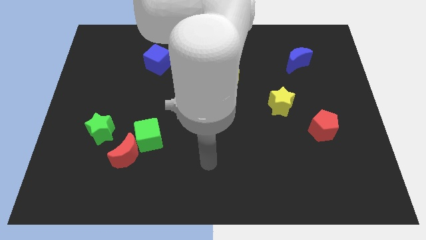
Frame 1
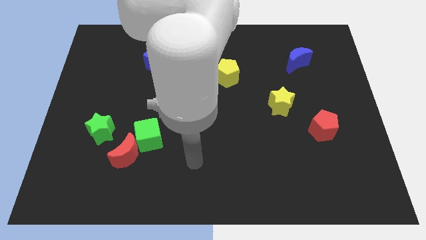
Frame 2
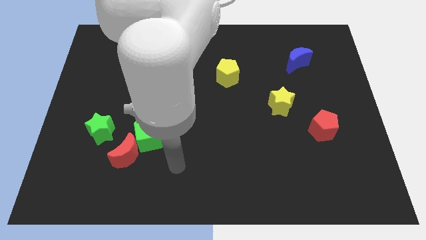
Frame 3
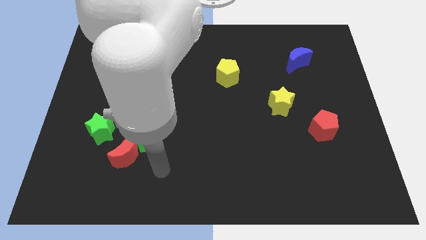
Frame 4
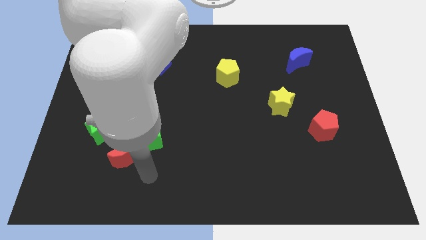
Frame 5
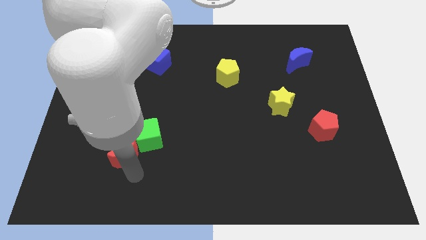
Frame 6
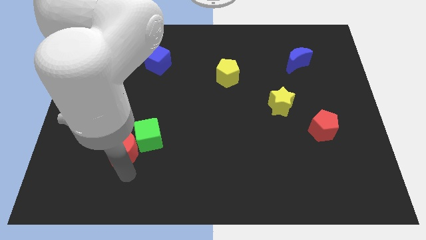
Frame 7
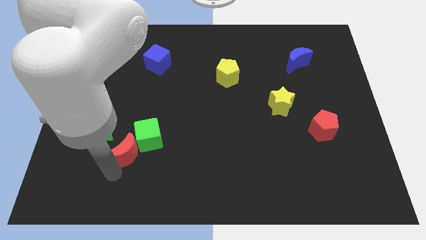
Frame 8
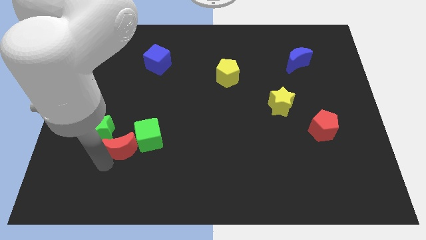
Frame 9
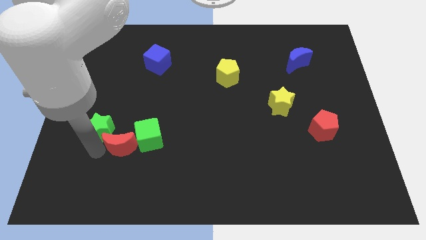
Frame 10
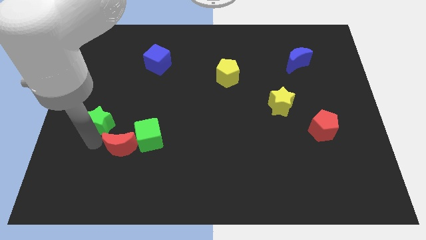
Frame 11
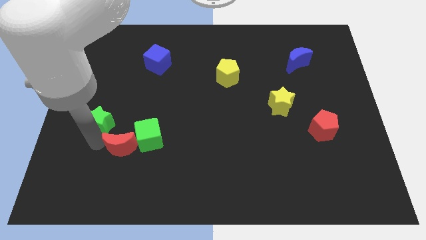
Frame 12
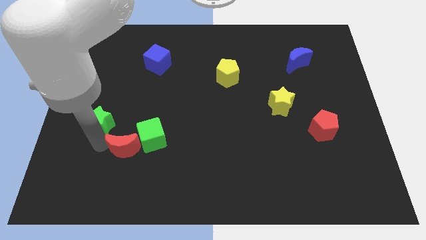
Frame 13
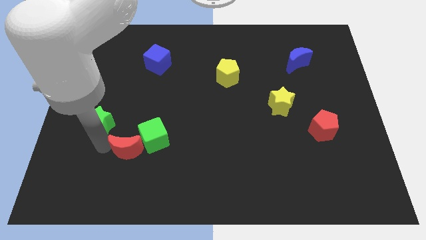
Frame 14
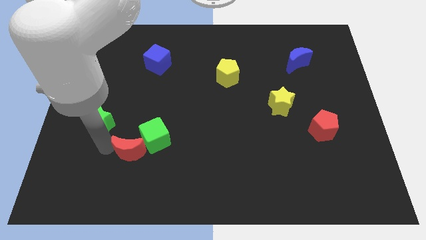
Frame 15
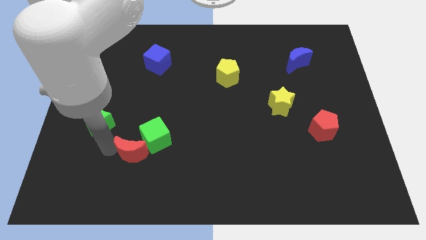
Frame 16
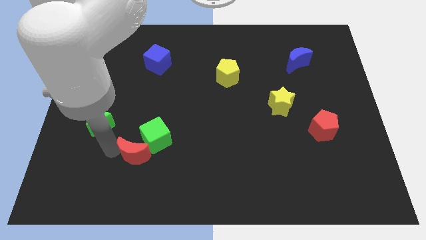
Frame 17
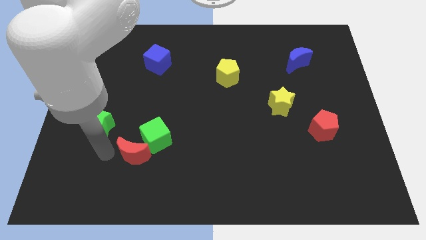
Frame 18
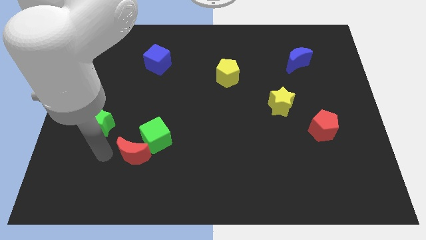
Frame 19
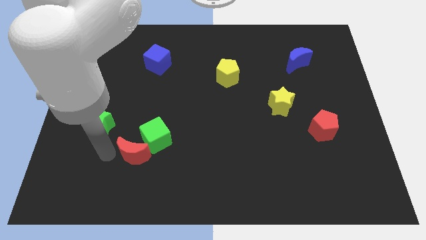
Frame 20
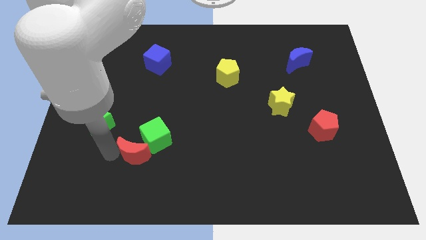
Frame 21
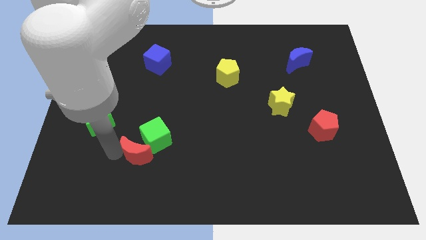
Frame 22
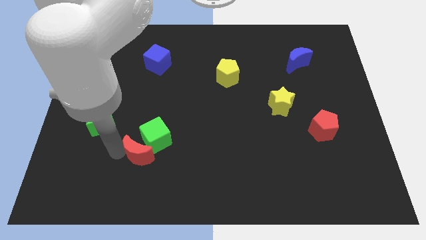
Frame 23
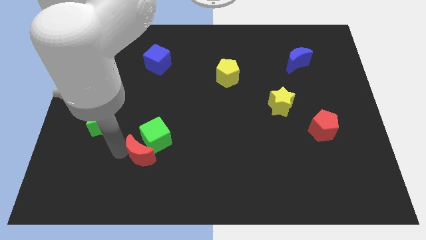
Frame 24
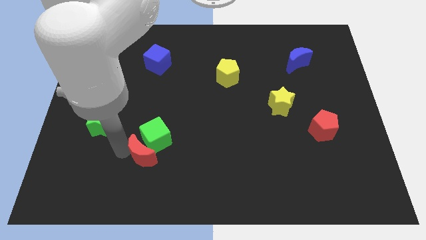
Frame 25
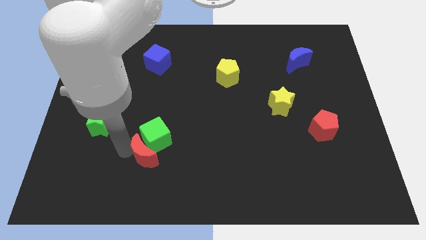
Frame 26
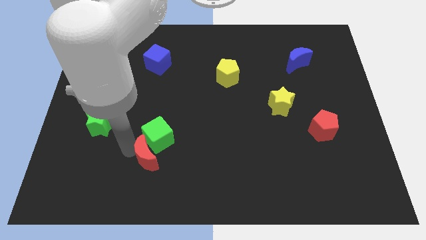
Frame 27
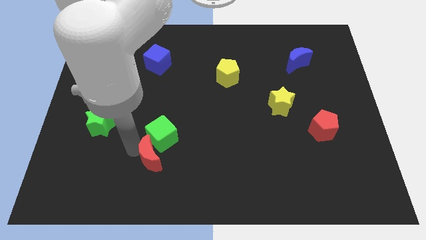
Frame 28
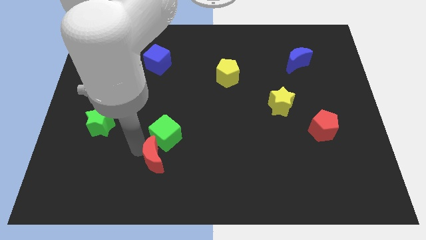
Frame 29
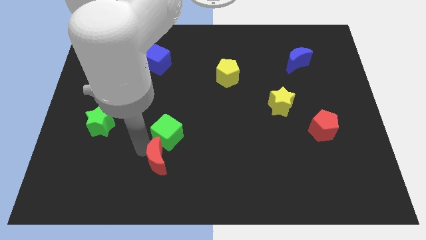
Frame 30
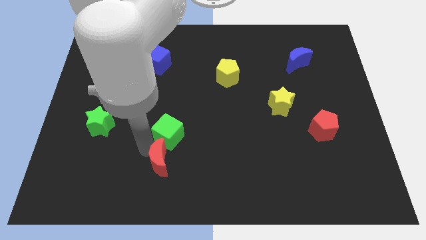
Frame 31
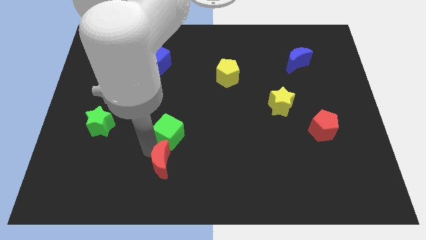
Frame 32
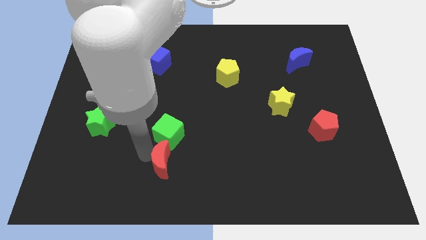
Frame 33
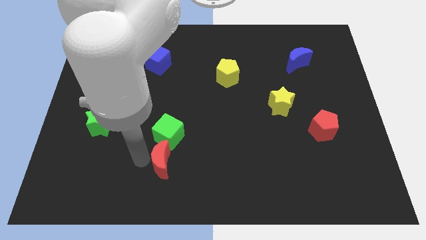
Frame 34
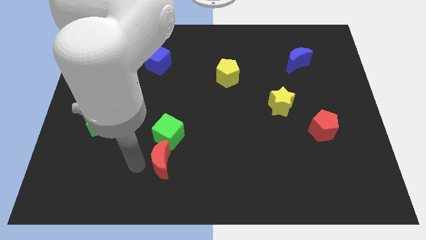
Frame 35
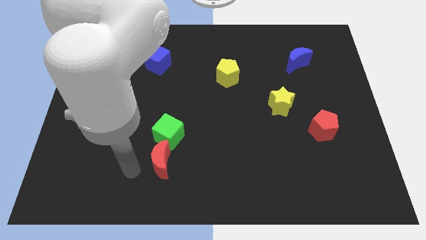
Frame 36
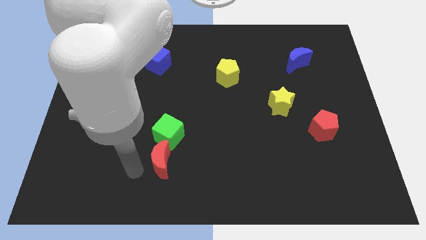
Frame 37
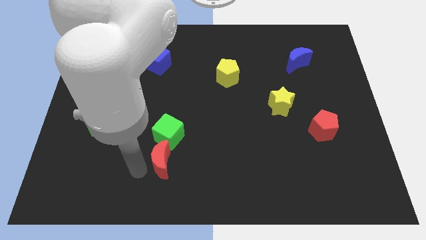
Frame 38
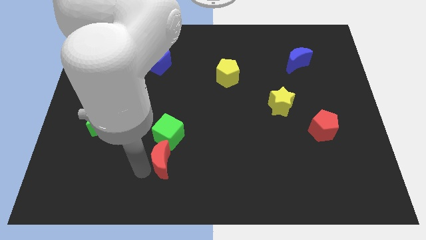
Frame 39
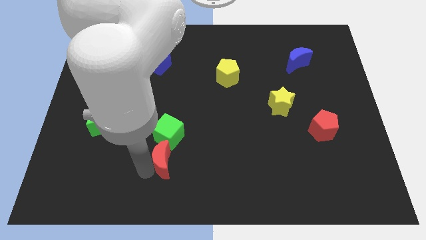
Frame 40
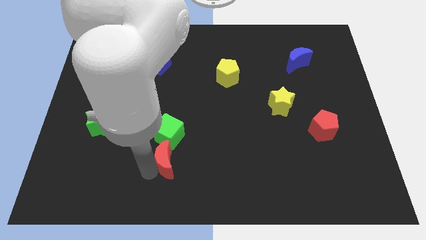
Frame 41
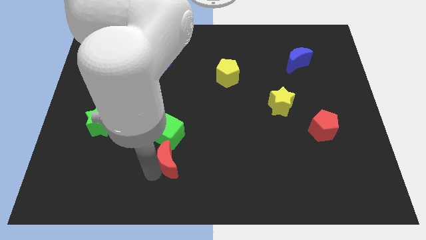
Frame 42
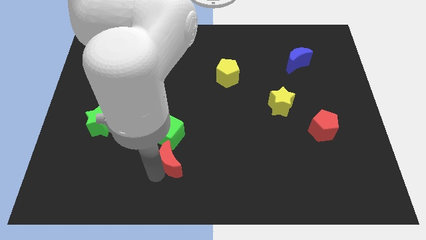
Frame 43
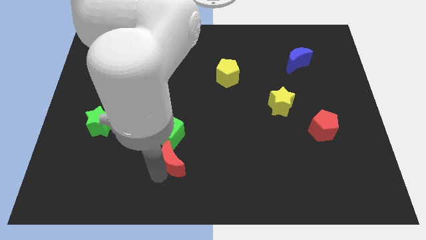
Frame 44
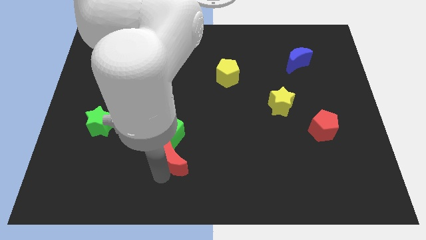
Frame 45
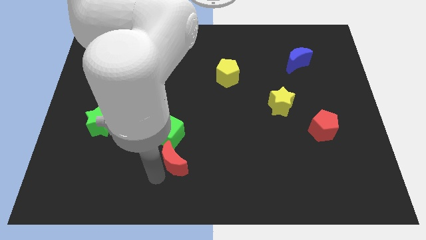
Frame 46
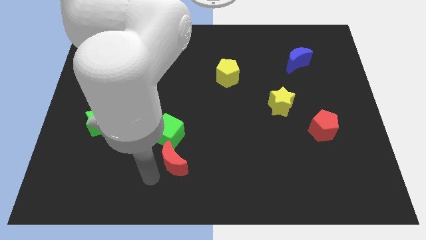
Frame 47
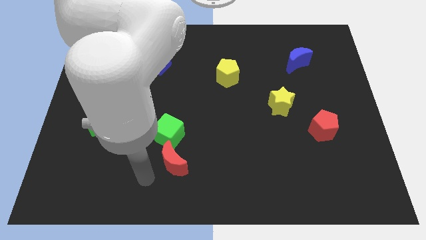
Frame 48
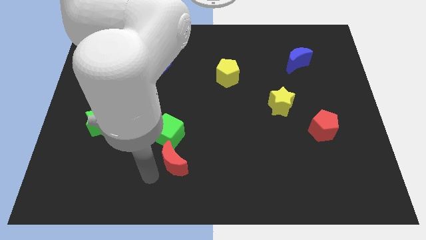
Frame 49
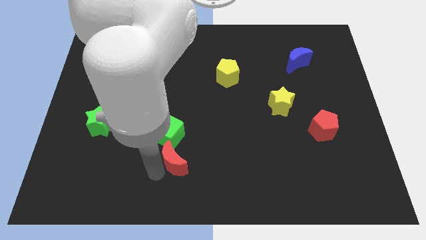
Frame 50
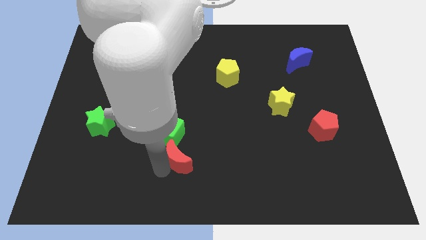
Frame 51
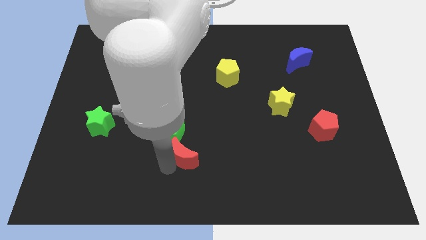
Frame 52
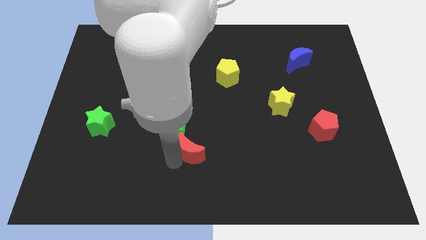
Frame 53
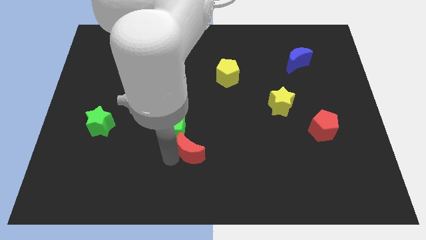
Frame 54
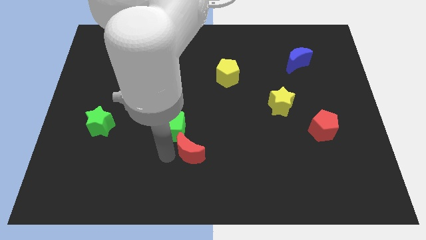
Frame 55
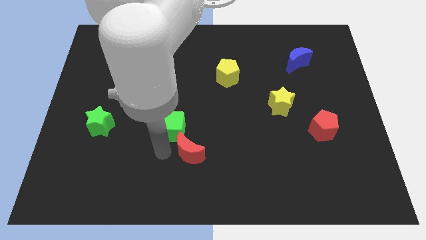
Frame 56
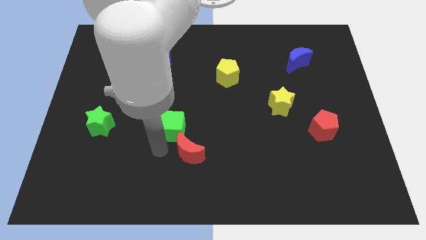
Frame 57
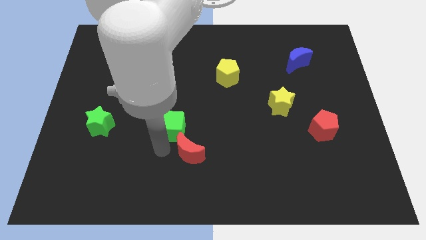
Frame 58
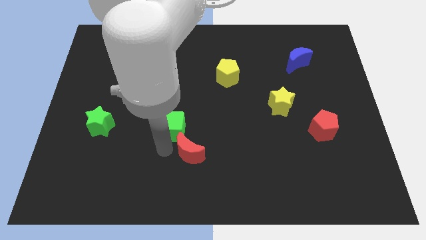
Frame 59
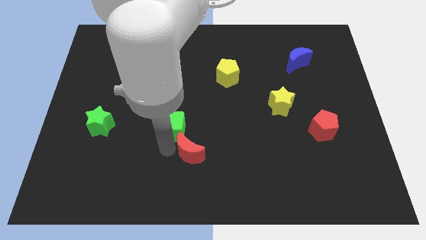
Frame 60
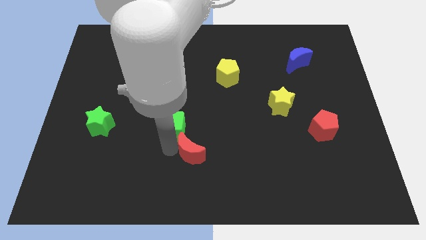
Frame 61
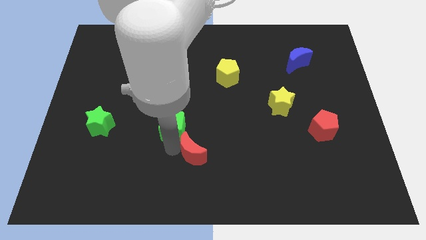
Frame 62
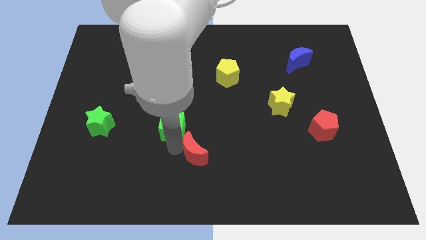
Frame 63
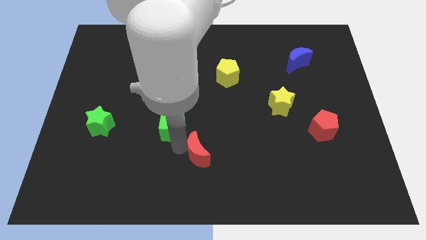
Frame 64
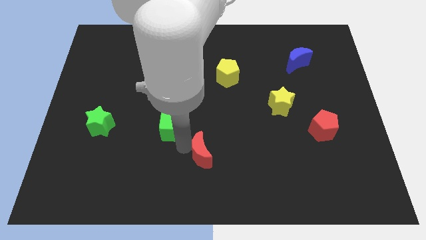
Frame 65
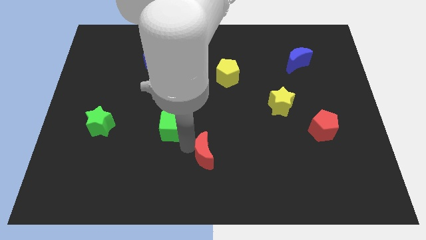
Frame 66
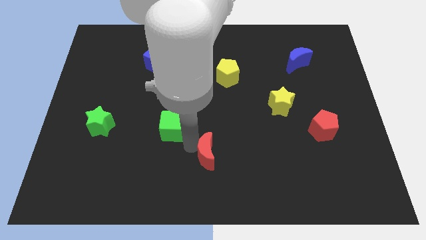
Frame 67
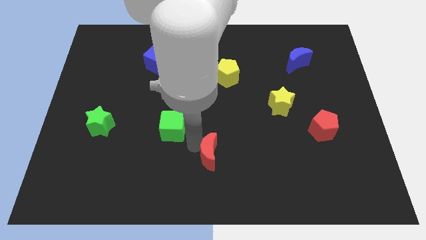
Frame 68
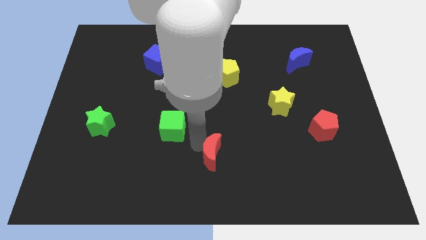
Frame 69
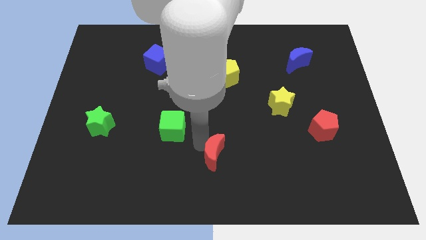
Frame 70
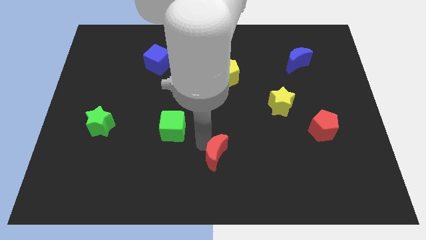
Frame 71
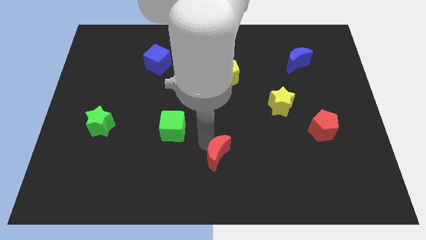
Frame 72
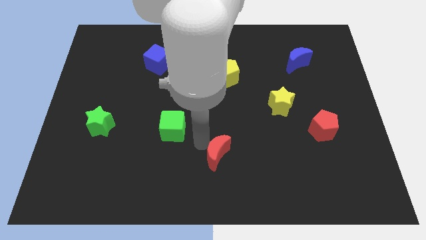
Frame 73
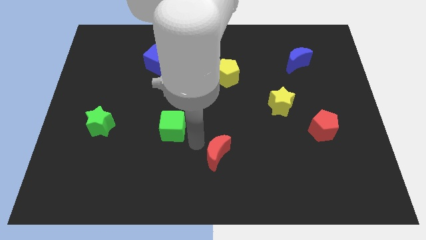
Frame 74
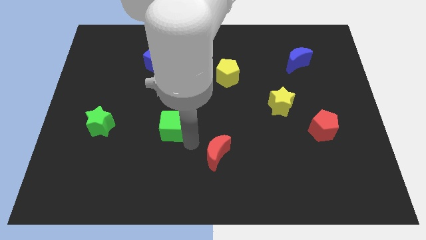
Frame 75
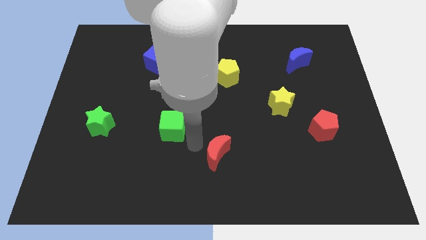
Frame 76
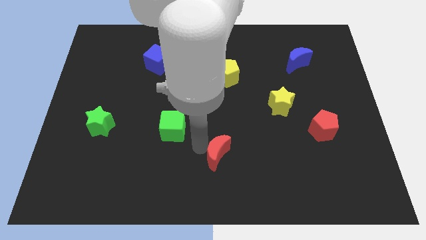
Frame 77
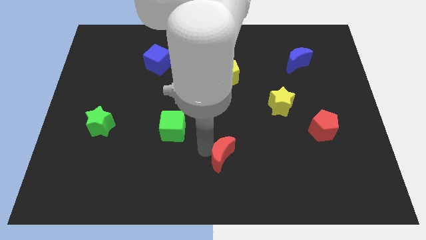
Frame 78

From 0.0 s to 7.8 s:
push the red moon right

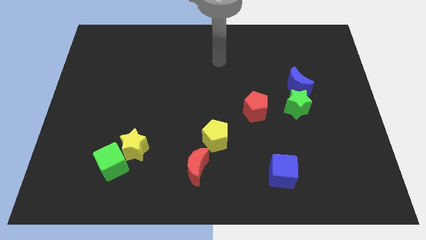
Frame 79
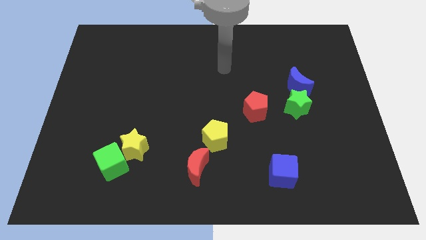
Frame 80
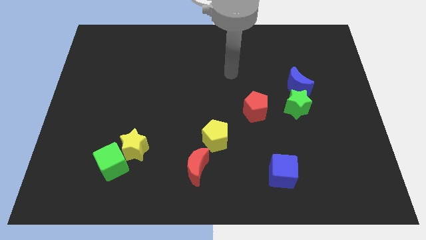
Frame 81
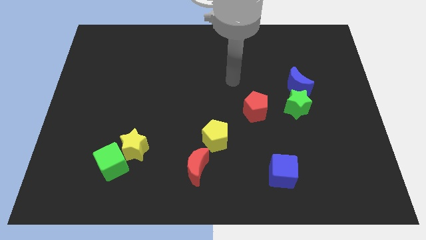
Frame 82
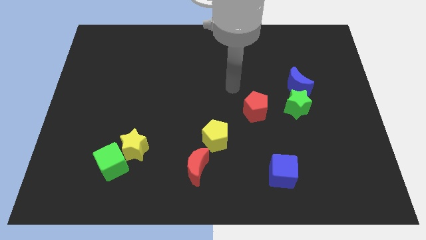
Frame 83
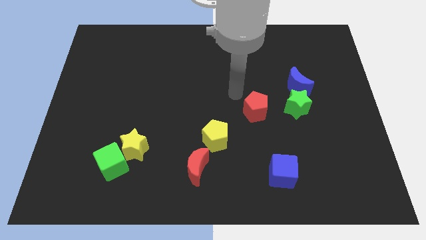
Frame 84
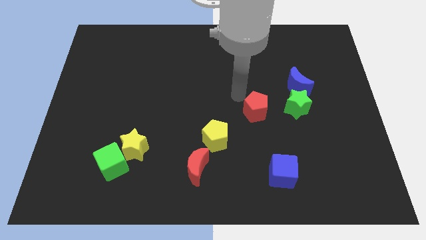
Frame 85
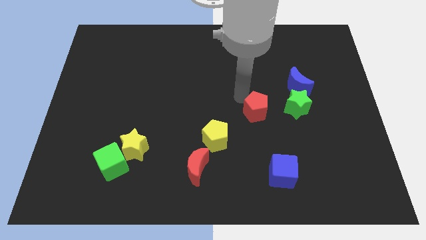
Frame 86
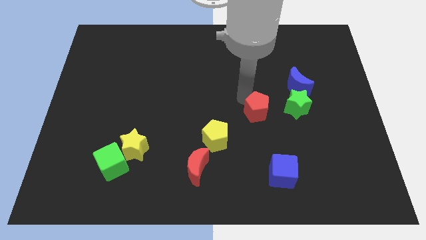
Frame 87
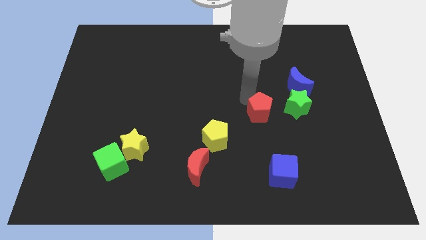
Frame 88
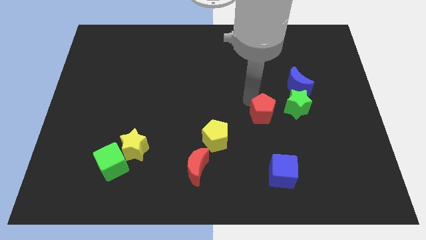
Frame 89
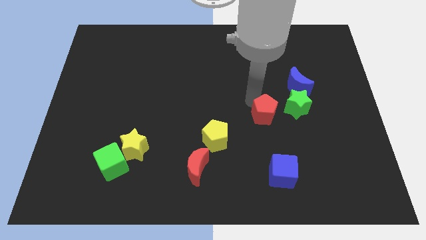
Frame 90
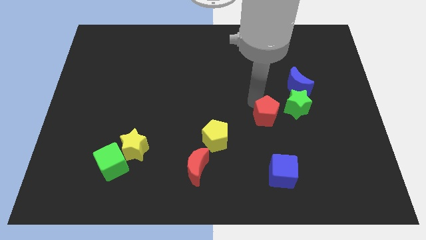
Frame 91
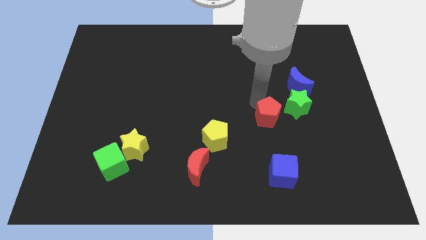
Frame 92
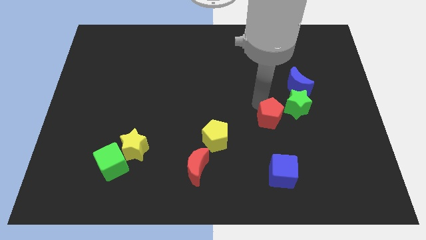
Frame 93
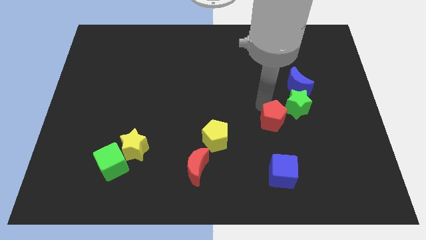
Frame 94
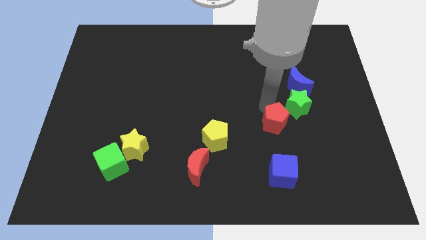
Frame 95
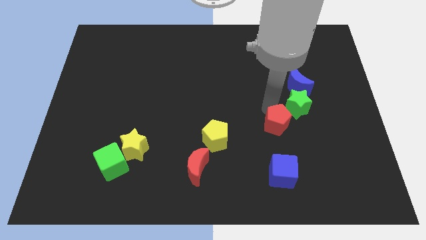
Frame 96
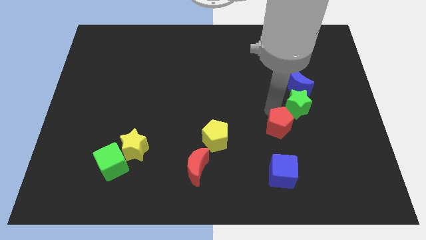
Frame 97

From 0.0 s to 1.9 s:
slightly push the red pentagon downwards and then to the right
